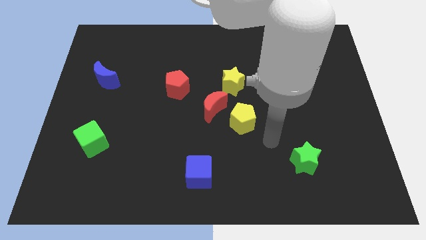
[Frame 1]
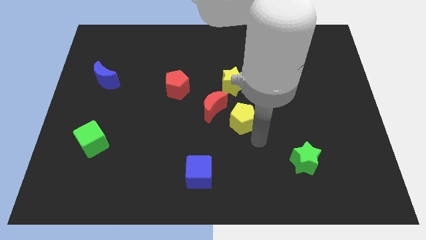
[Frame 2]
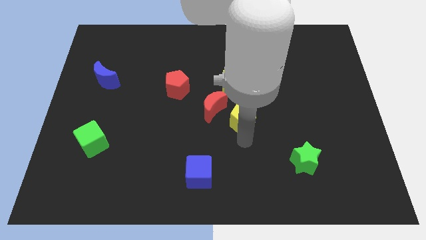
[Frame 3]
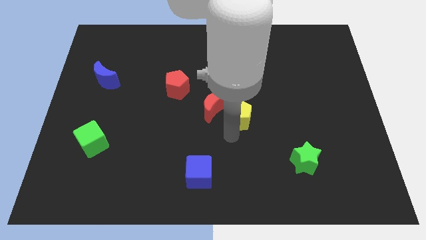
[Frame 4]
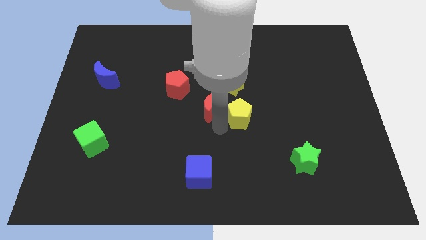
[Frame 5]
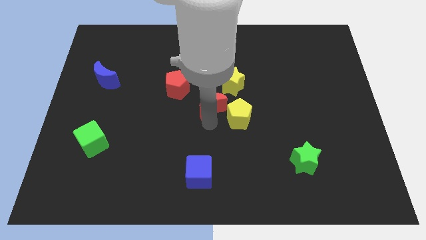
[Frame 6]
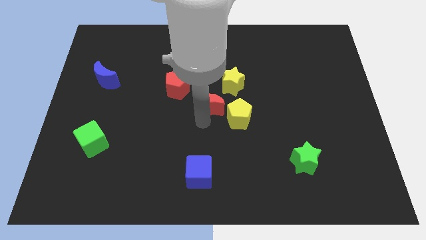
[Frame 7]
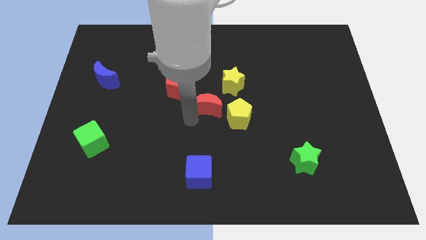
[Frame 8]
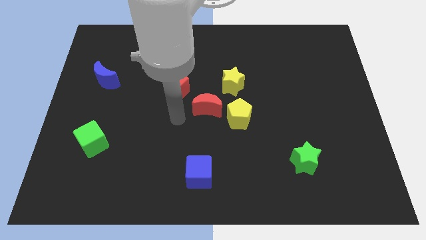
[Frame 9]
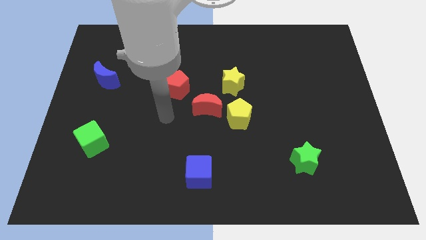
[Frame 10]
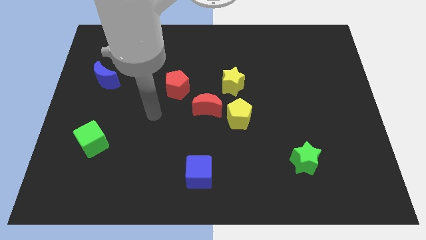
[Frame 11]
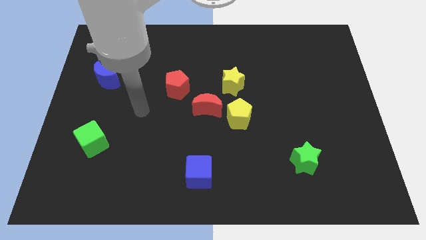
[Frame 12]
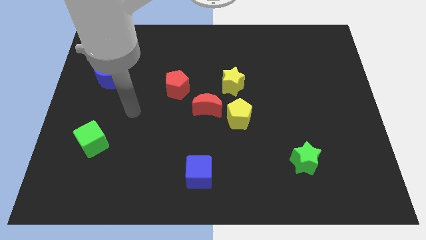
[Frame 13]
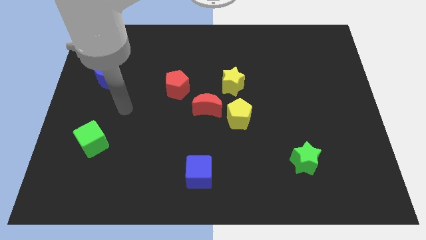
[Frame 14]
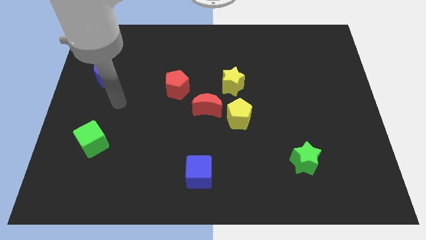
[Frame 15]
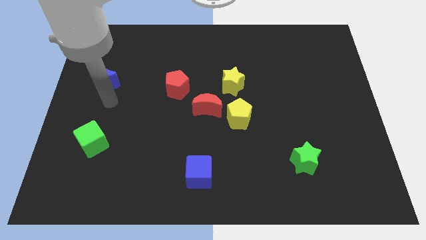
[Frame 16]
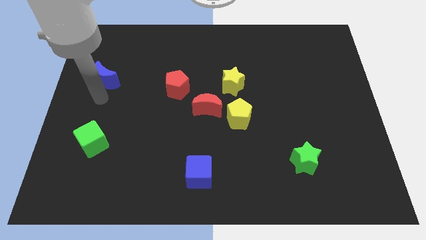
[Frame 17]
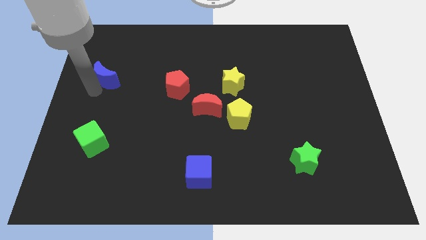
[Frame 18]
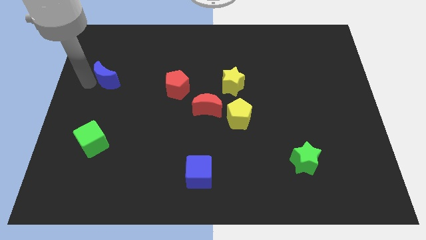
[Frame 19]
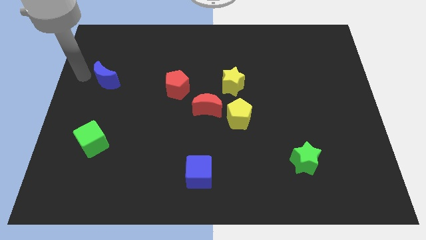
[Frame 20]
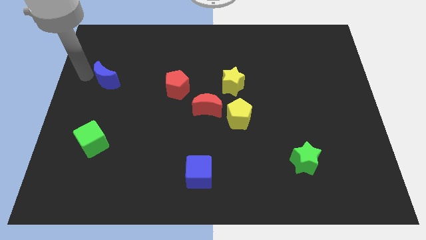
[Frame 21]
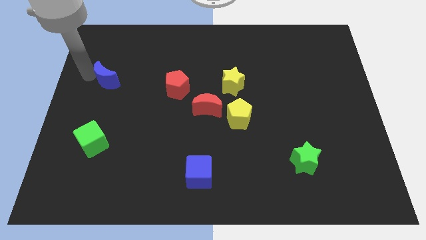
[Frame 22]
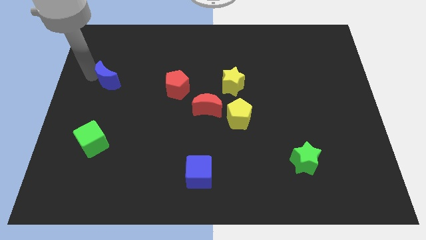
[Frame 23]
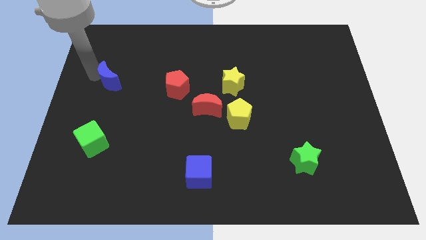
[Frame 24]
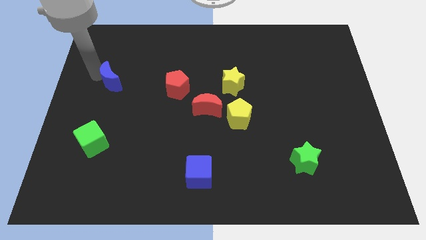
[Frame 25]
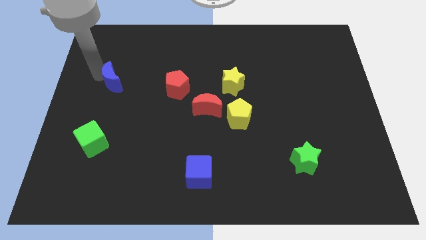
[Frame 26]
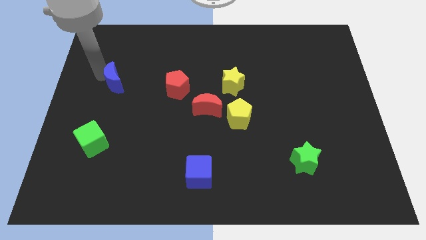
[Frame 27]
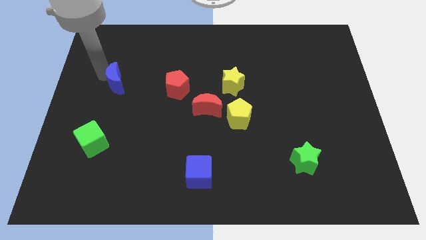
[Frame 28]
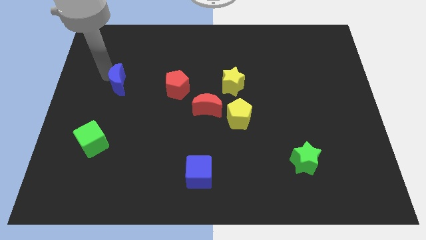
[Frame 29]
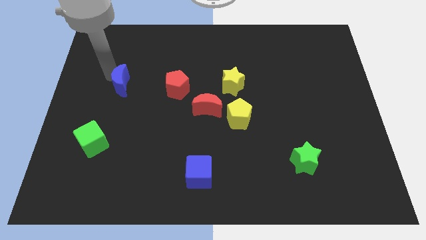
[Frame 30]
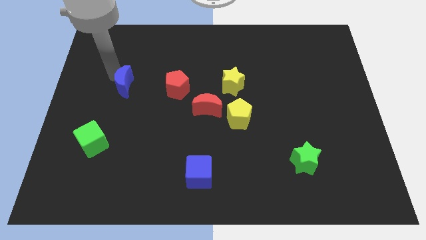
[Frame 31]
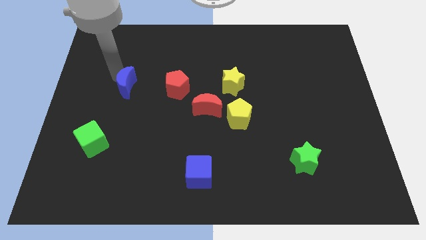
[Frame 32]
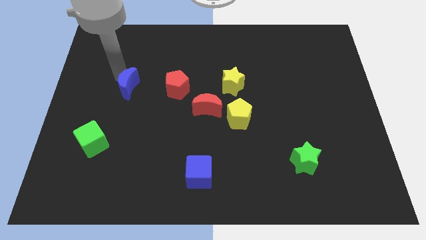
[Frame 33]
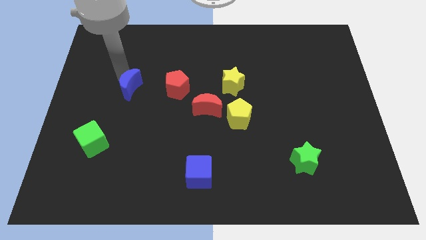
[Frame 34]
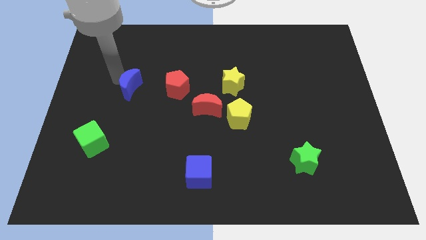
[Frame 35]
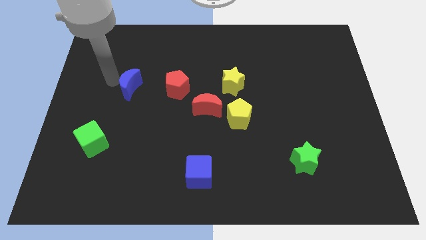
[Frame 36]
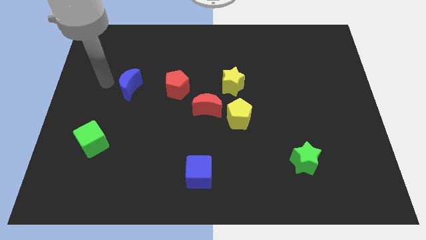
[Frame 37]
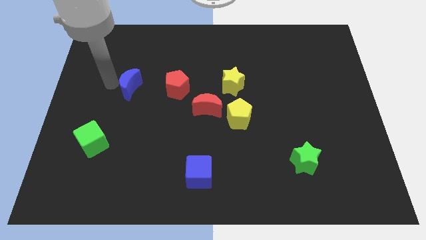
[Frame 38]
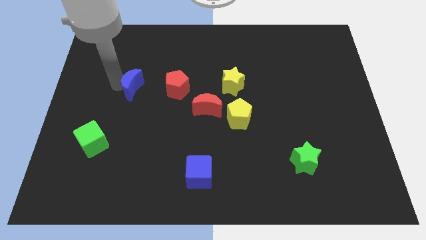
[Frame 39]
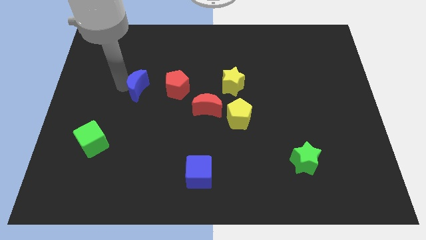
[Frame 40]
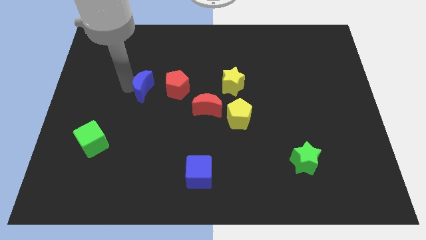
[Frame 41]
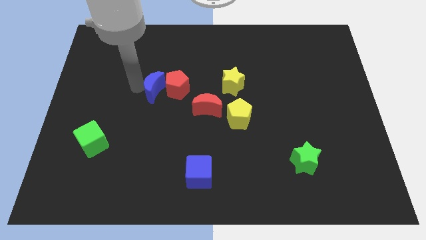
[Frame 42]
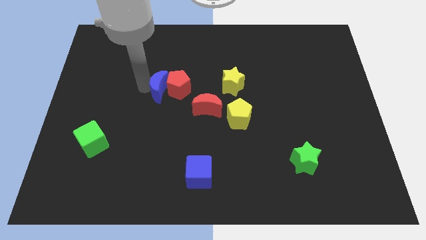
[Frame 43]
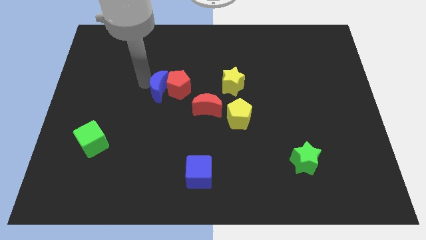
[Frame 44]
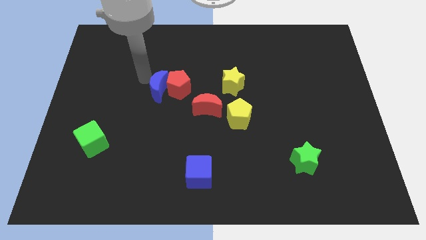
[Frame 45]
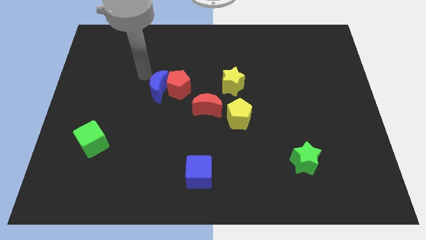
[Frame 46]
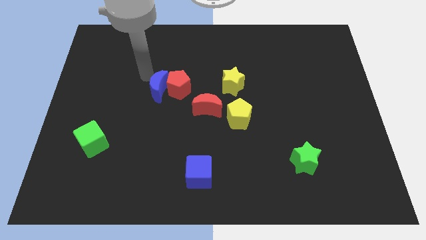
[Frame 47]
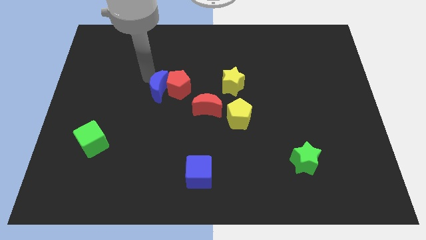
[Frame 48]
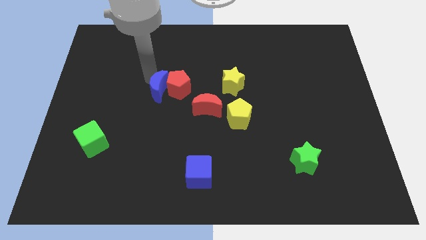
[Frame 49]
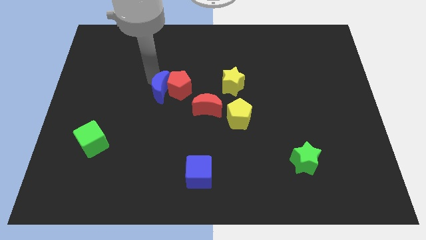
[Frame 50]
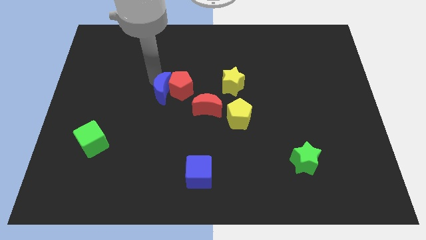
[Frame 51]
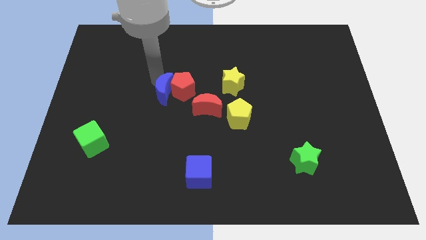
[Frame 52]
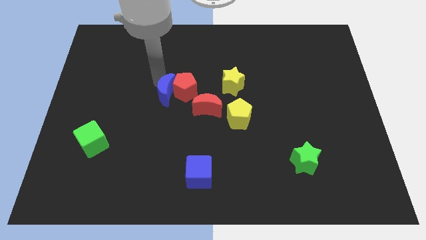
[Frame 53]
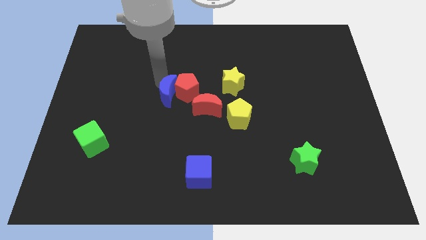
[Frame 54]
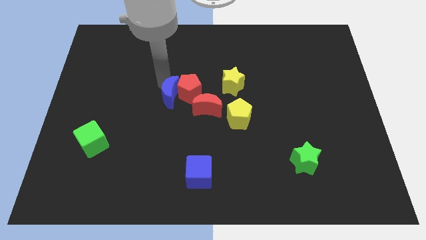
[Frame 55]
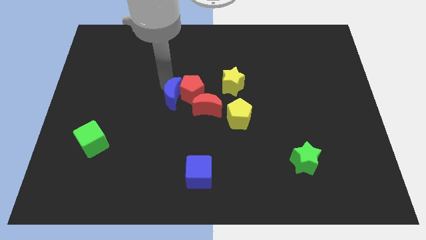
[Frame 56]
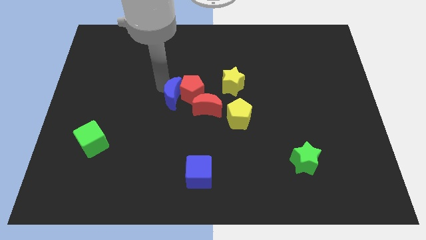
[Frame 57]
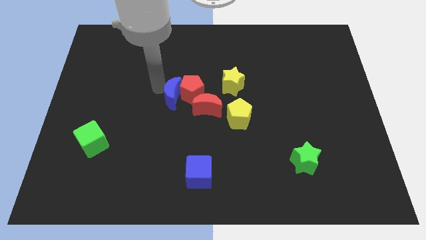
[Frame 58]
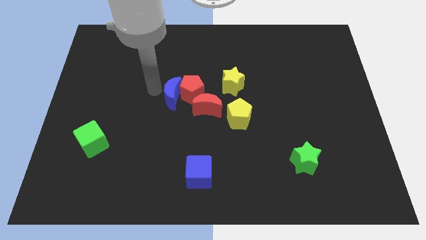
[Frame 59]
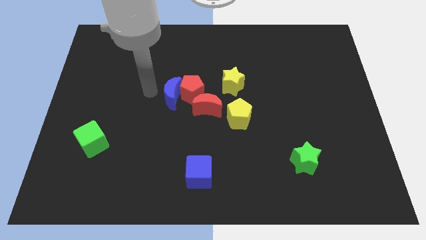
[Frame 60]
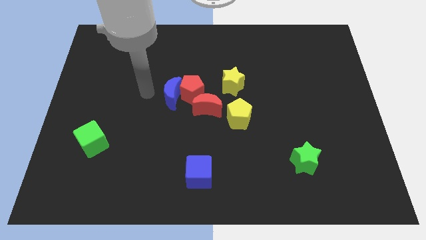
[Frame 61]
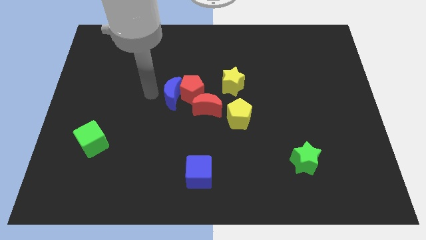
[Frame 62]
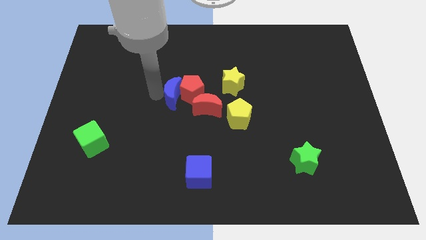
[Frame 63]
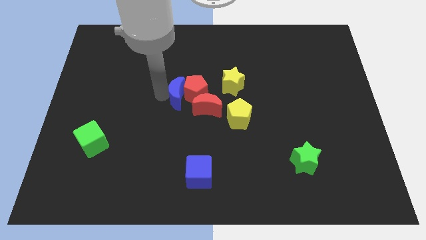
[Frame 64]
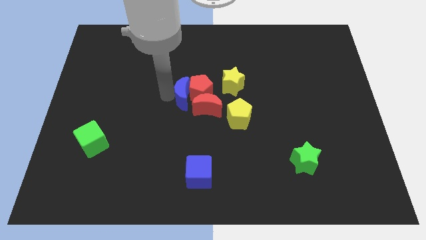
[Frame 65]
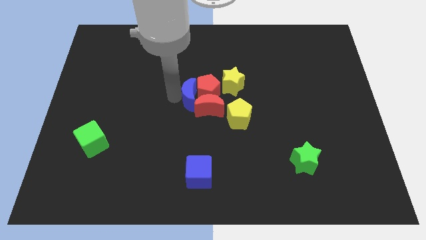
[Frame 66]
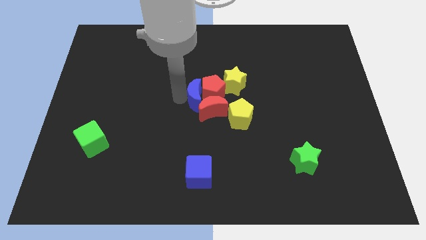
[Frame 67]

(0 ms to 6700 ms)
slide the blue moon diagonally up and to the left of the yellow pentagon

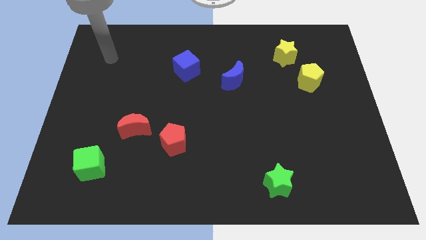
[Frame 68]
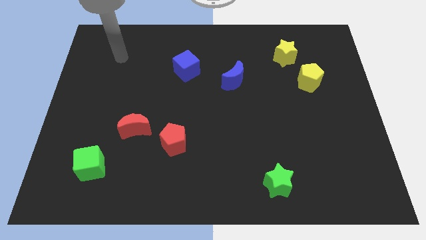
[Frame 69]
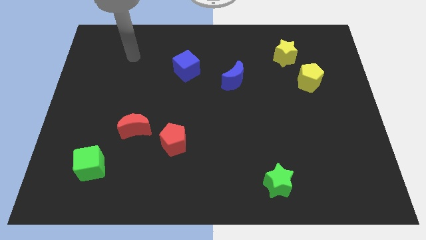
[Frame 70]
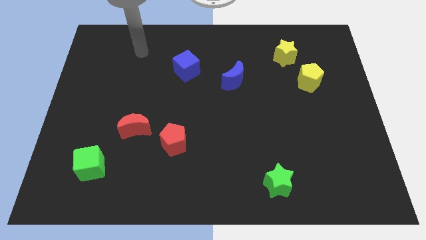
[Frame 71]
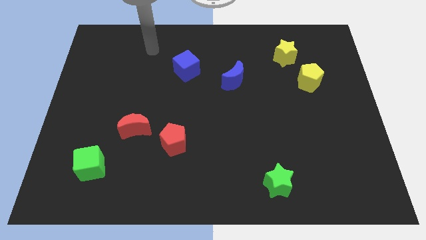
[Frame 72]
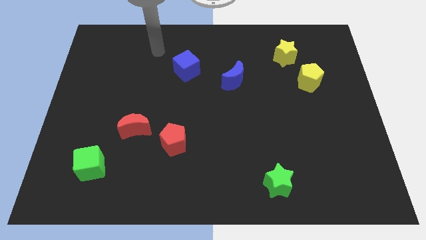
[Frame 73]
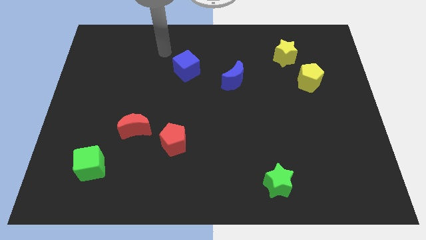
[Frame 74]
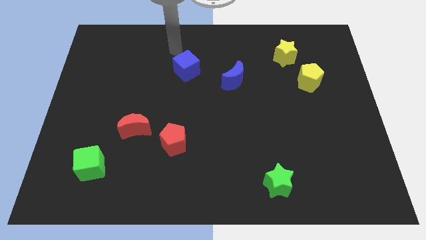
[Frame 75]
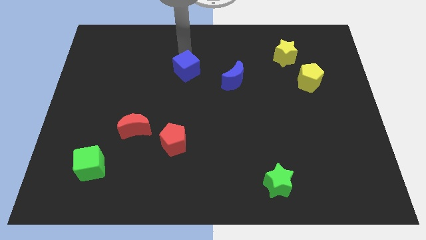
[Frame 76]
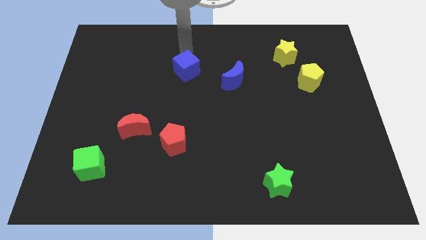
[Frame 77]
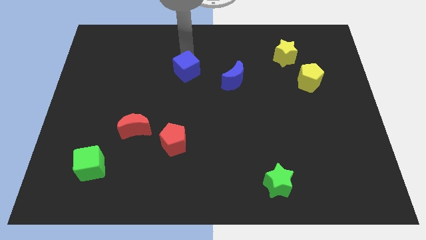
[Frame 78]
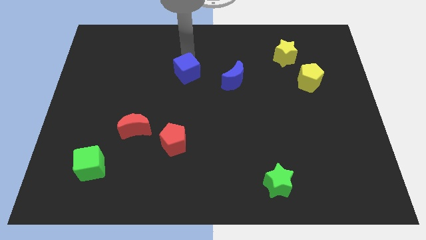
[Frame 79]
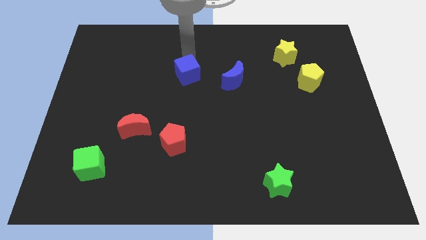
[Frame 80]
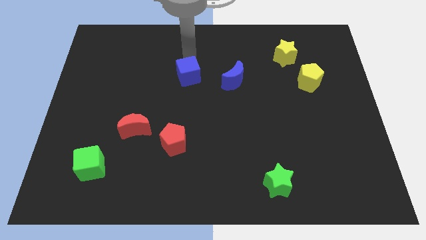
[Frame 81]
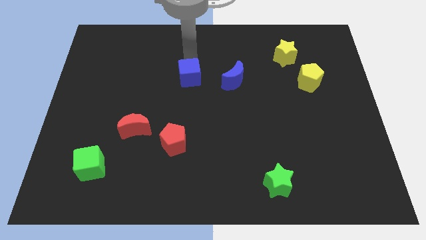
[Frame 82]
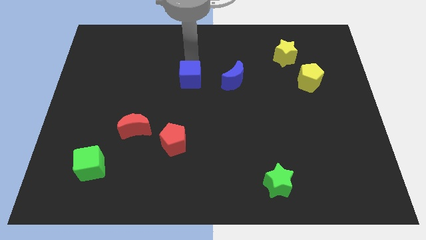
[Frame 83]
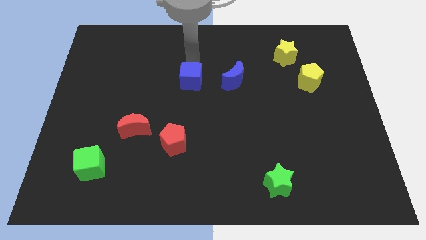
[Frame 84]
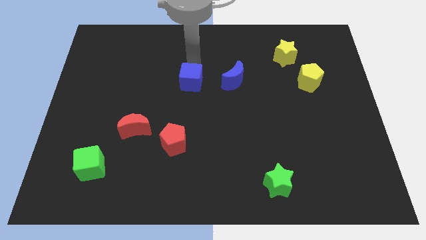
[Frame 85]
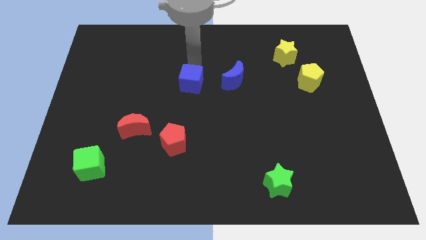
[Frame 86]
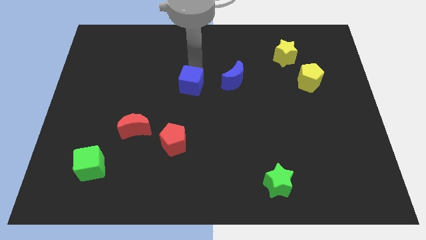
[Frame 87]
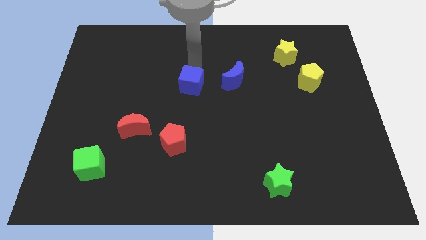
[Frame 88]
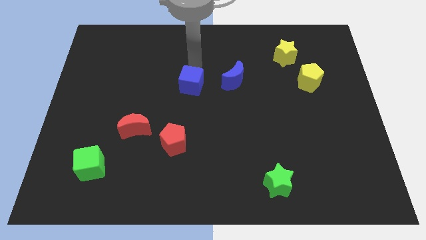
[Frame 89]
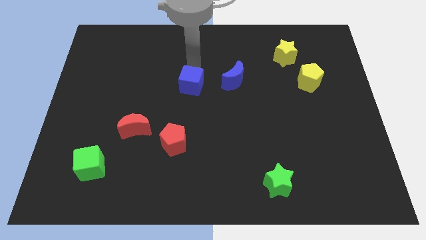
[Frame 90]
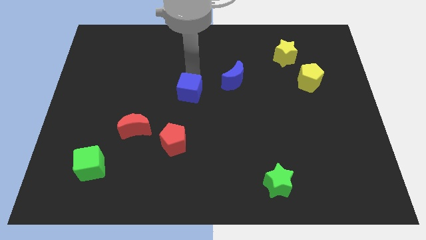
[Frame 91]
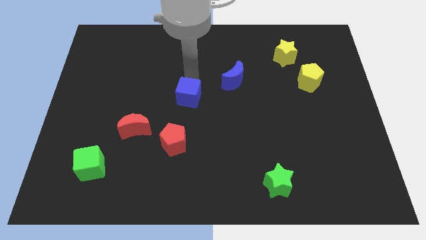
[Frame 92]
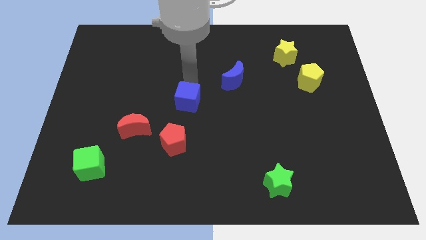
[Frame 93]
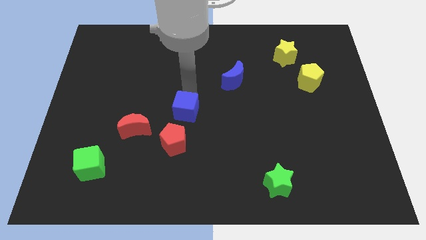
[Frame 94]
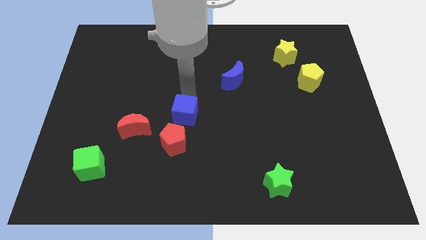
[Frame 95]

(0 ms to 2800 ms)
put the blue cube right of the red moon
